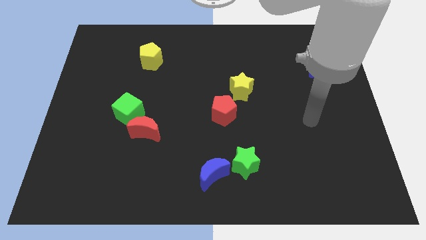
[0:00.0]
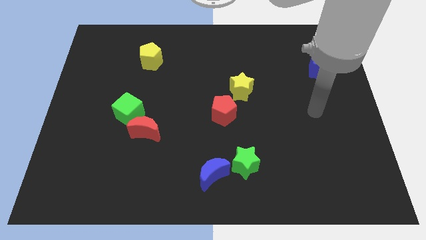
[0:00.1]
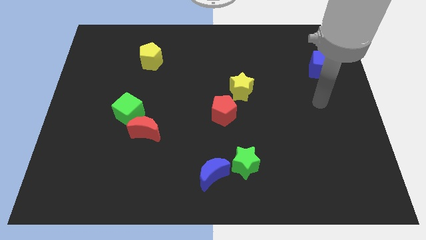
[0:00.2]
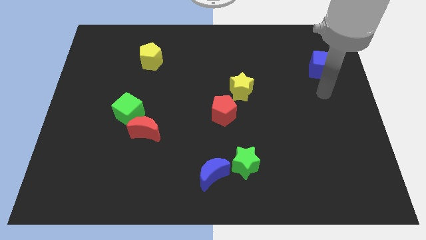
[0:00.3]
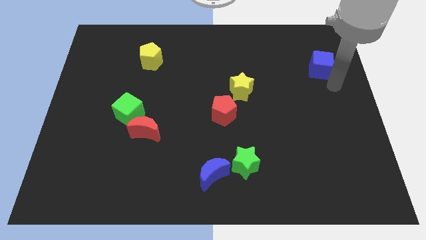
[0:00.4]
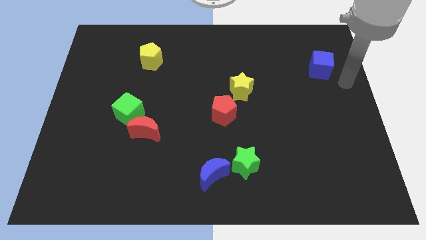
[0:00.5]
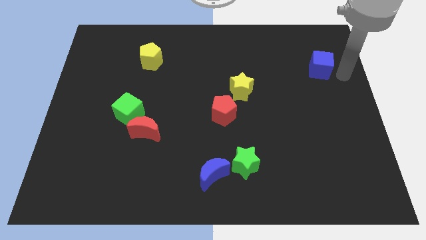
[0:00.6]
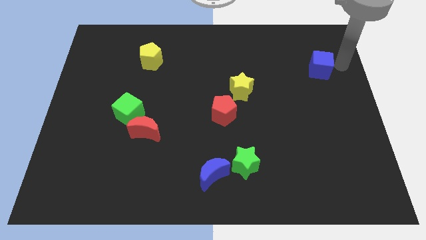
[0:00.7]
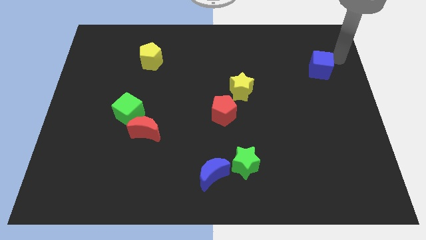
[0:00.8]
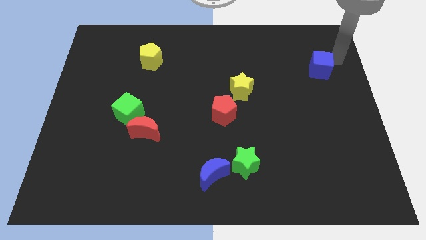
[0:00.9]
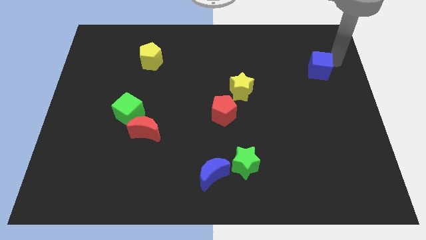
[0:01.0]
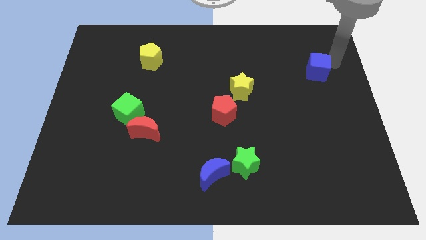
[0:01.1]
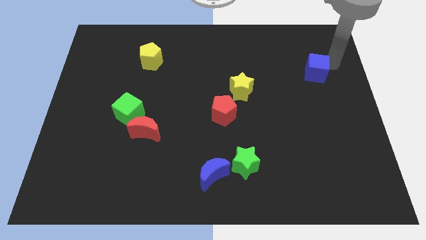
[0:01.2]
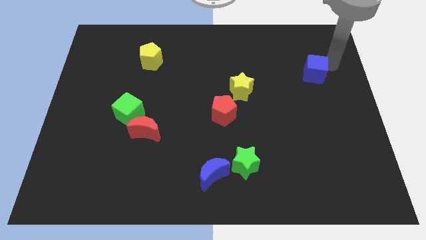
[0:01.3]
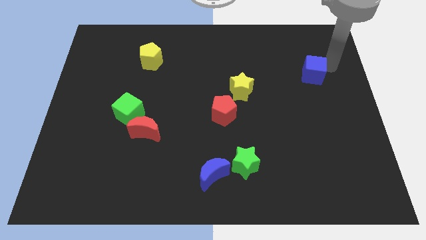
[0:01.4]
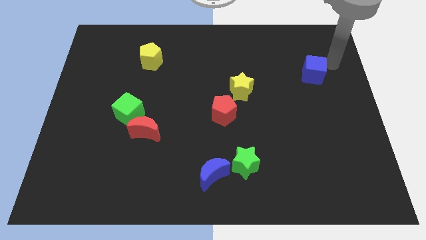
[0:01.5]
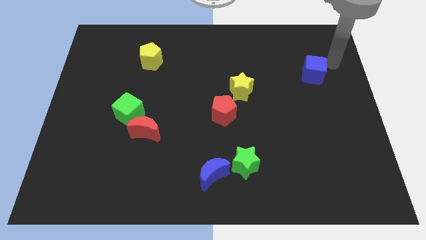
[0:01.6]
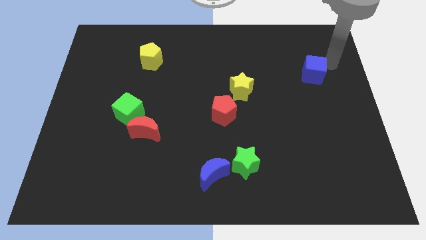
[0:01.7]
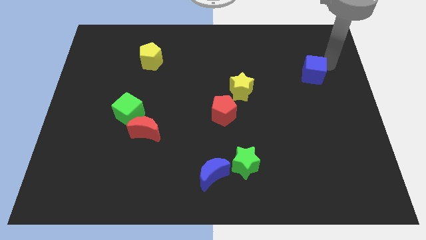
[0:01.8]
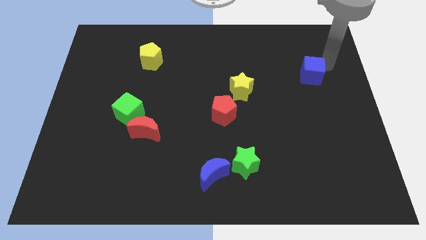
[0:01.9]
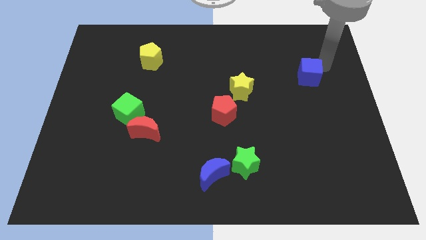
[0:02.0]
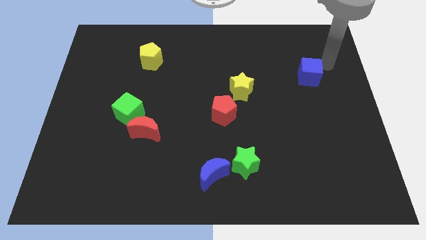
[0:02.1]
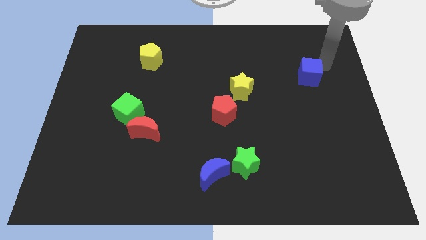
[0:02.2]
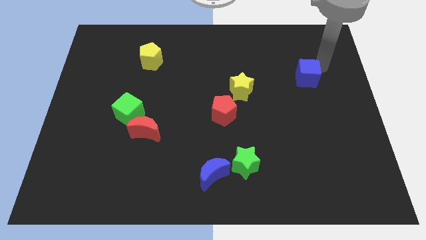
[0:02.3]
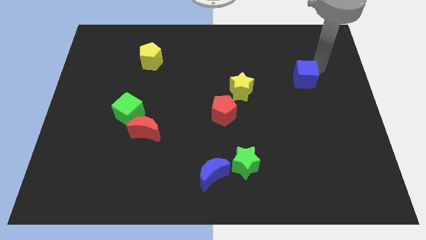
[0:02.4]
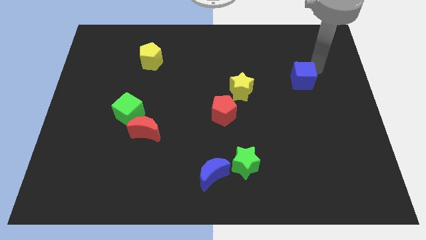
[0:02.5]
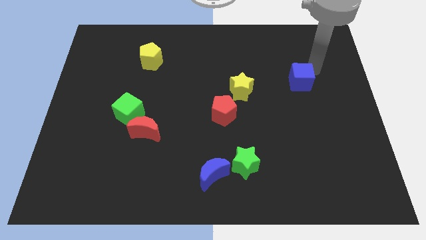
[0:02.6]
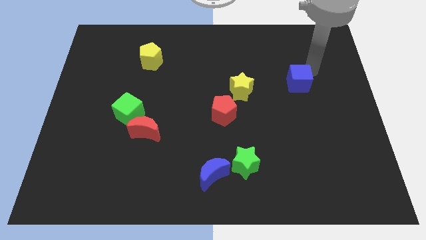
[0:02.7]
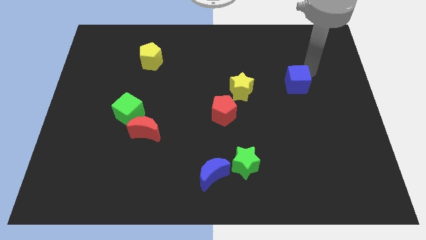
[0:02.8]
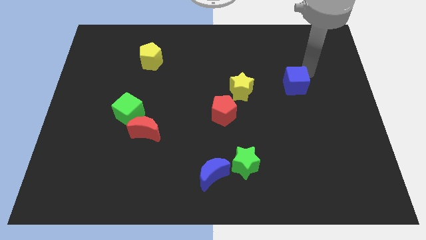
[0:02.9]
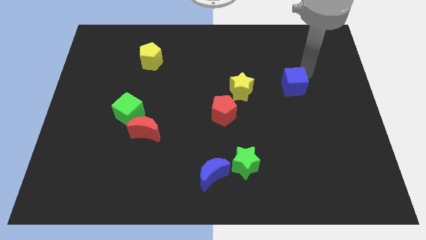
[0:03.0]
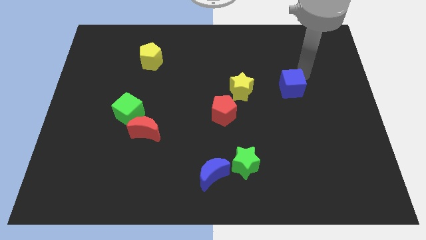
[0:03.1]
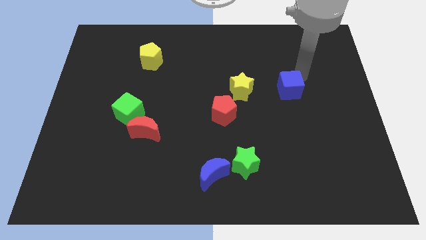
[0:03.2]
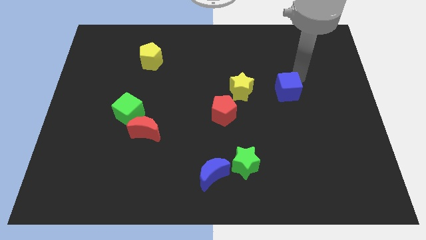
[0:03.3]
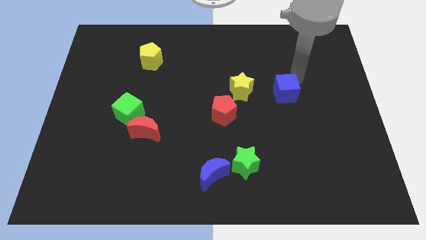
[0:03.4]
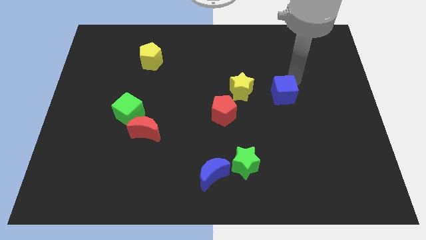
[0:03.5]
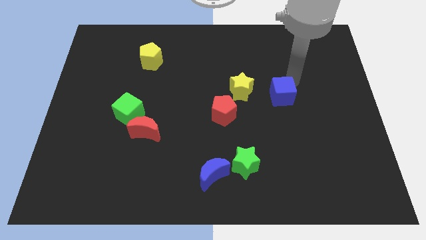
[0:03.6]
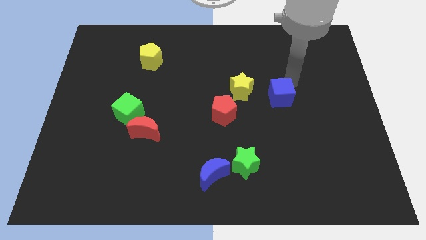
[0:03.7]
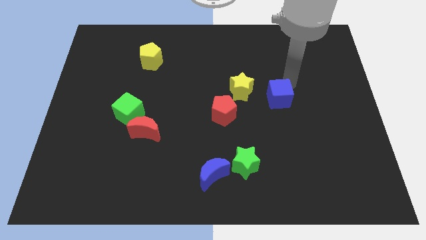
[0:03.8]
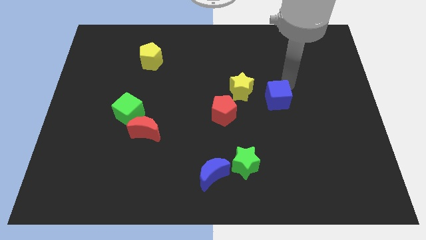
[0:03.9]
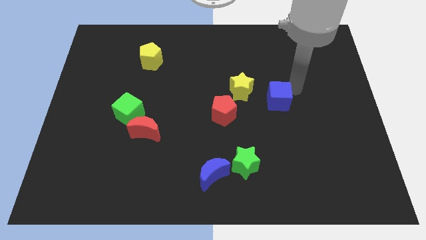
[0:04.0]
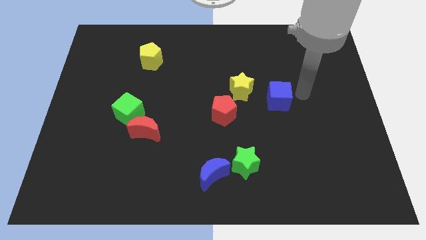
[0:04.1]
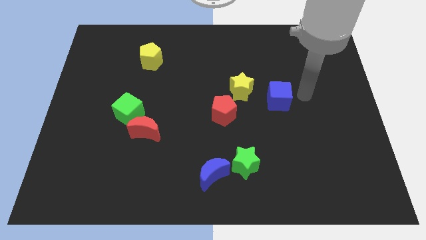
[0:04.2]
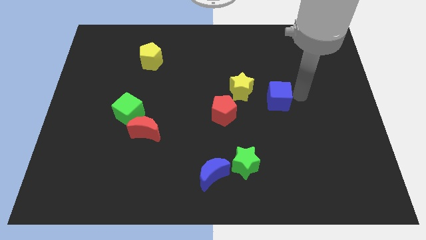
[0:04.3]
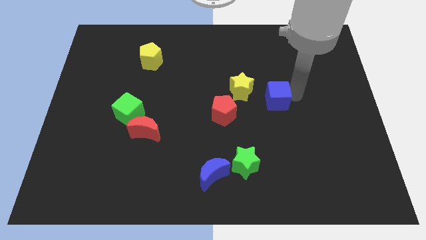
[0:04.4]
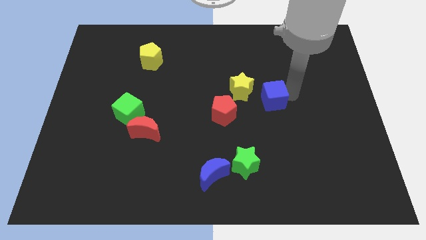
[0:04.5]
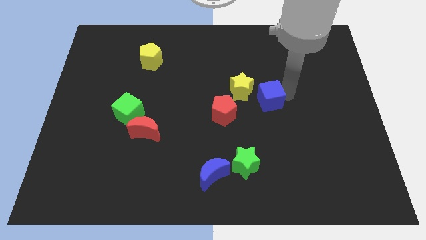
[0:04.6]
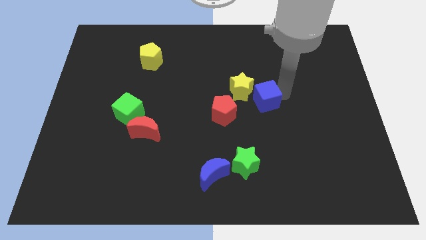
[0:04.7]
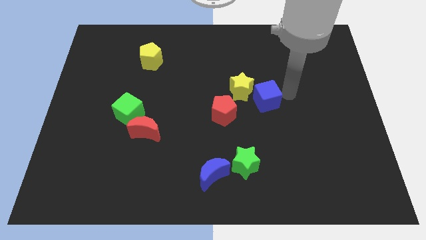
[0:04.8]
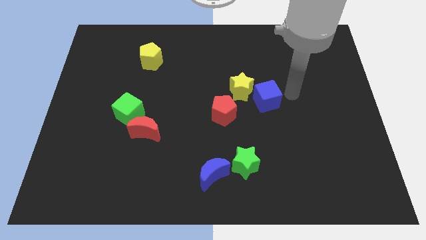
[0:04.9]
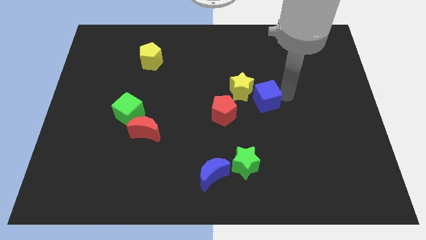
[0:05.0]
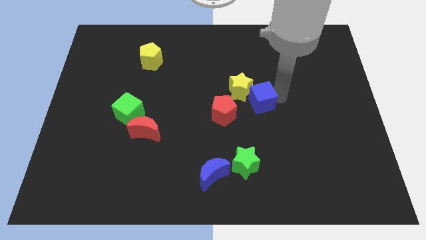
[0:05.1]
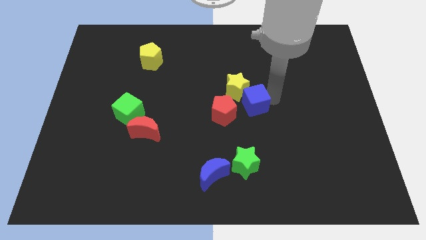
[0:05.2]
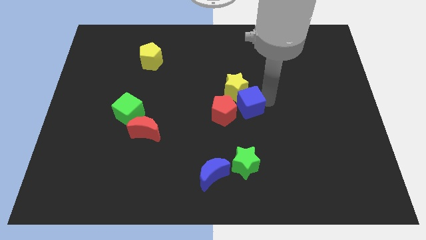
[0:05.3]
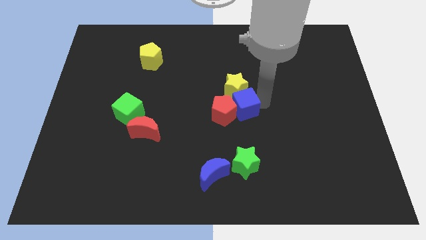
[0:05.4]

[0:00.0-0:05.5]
push the blue cube to the red pentagon

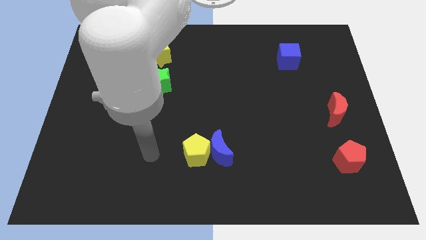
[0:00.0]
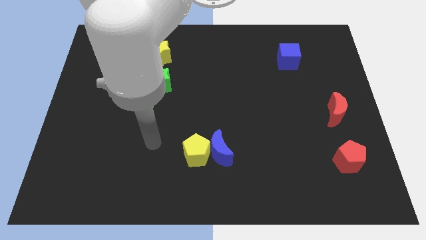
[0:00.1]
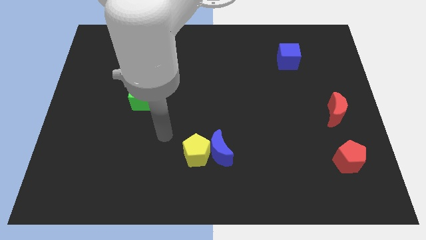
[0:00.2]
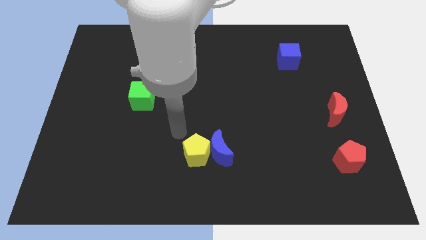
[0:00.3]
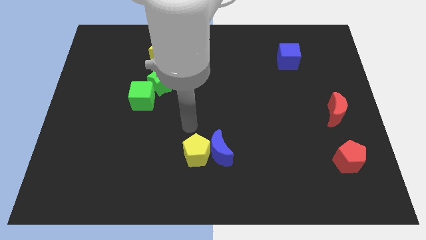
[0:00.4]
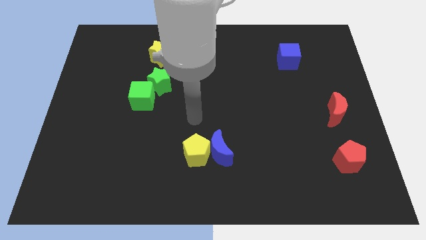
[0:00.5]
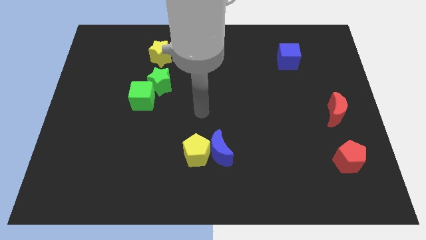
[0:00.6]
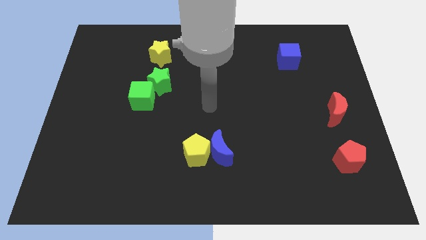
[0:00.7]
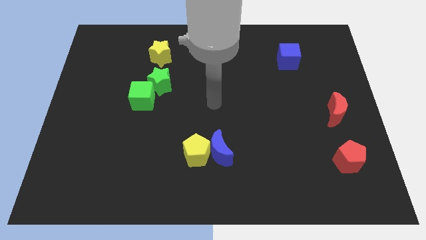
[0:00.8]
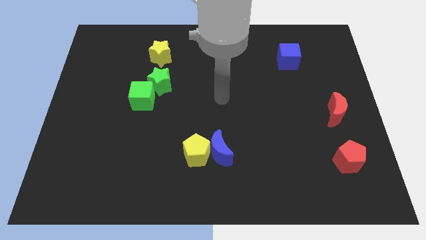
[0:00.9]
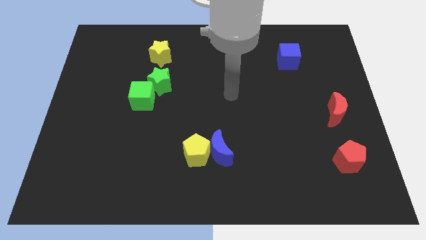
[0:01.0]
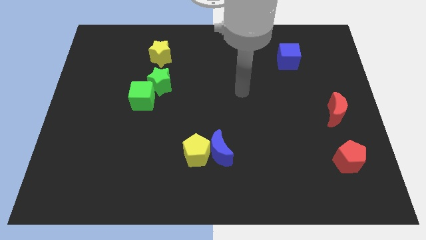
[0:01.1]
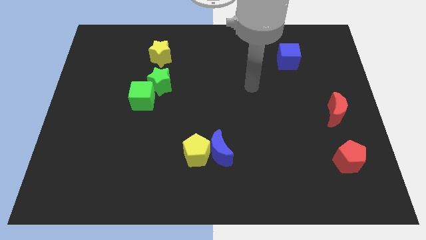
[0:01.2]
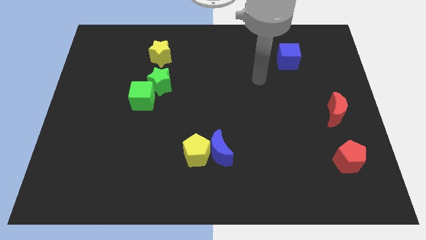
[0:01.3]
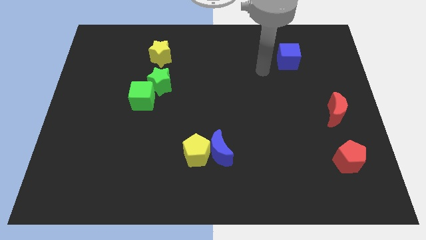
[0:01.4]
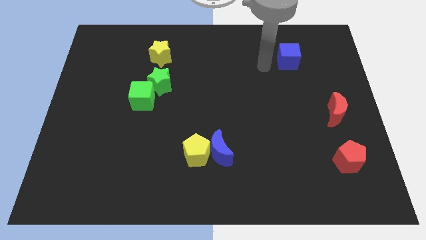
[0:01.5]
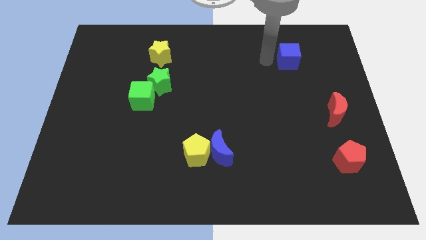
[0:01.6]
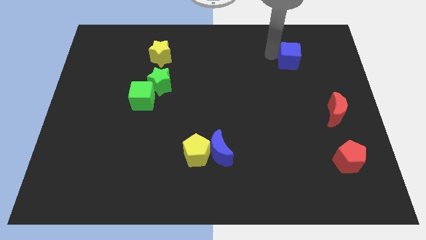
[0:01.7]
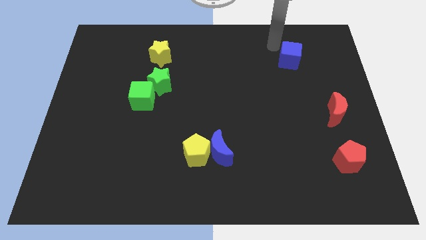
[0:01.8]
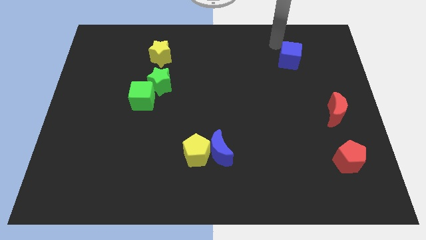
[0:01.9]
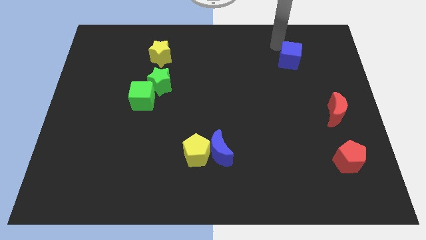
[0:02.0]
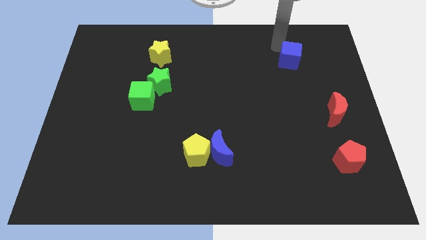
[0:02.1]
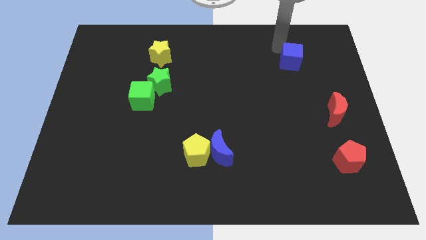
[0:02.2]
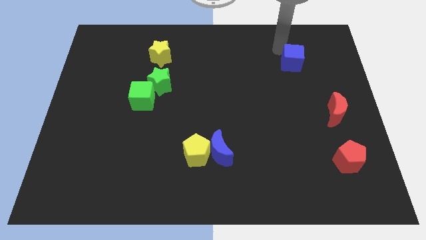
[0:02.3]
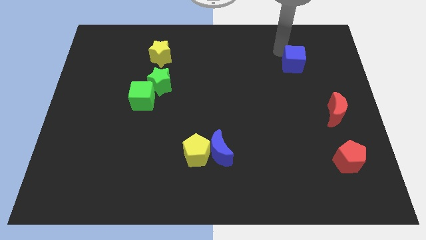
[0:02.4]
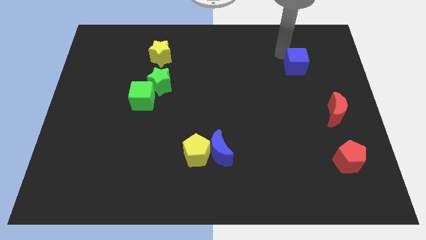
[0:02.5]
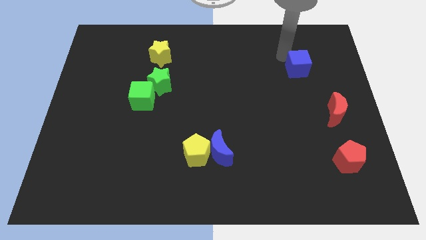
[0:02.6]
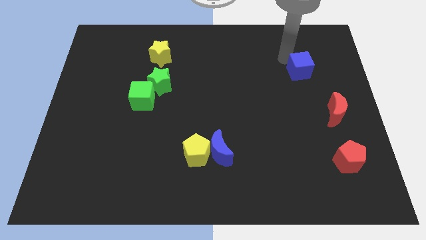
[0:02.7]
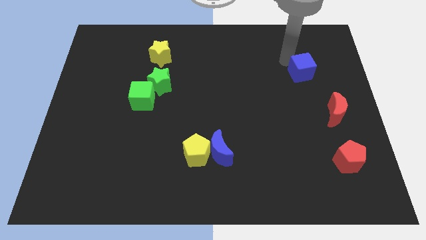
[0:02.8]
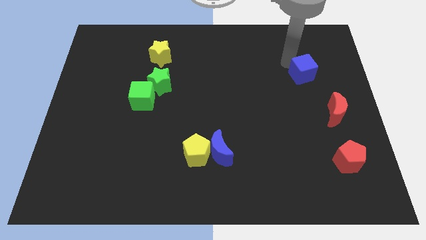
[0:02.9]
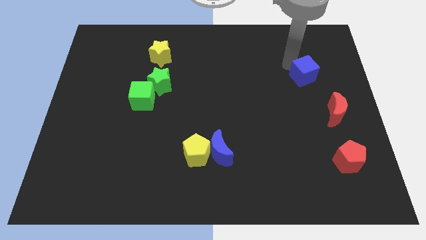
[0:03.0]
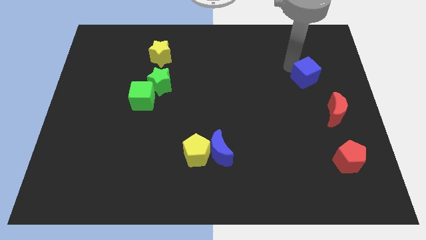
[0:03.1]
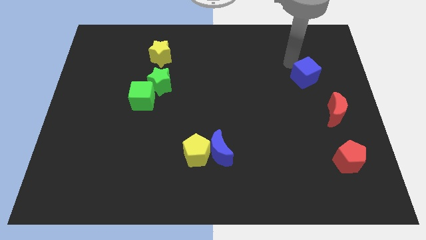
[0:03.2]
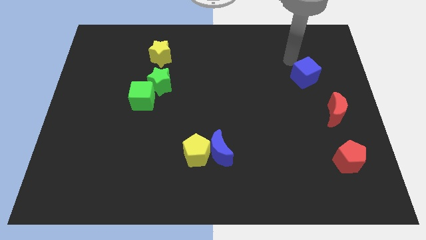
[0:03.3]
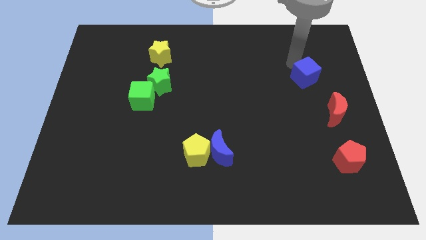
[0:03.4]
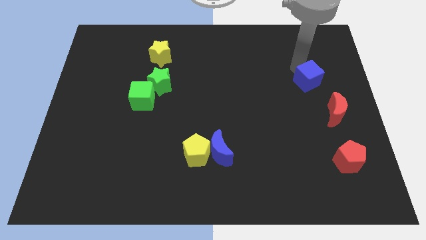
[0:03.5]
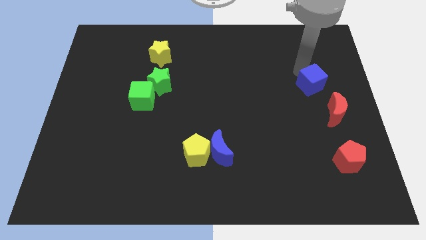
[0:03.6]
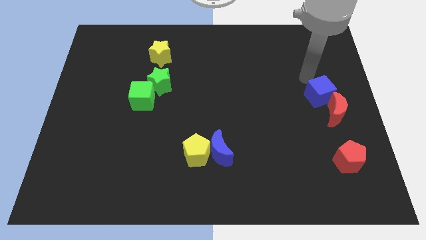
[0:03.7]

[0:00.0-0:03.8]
slide the blue cube next to the red moon
